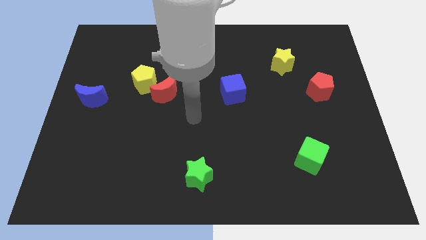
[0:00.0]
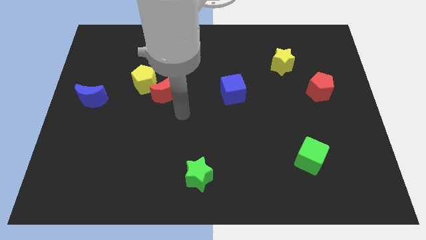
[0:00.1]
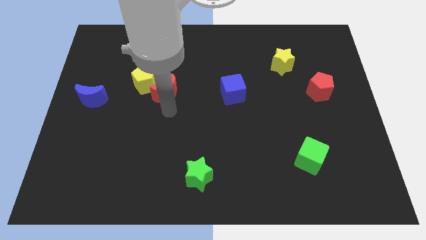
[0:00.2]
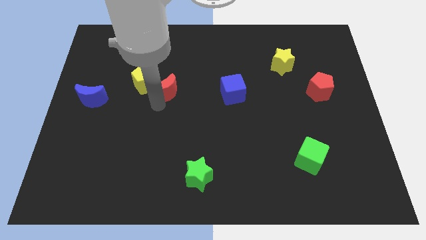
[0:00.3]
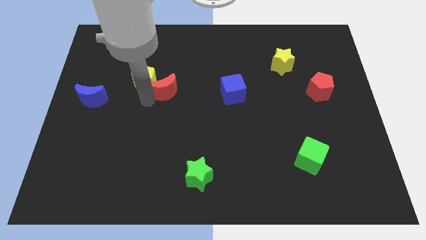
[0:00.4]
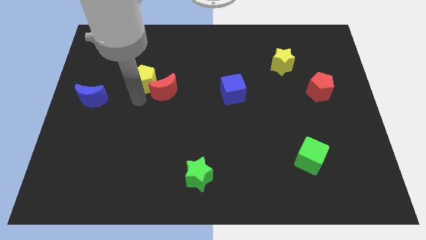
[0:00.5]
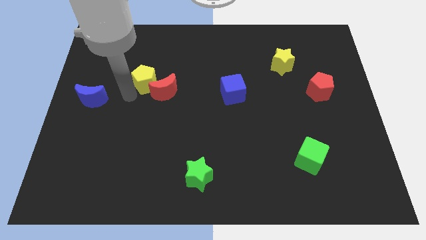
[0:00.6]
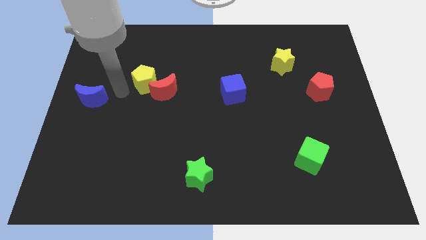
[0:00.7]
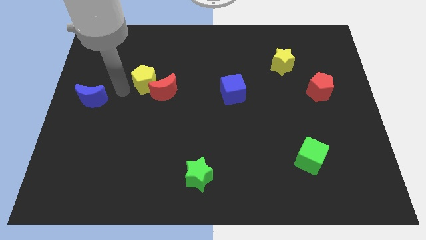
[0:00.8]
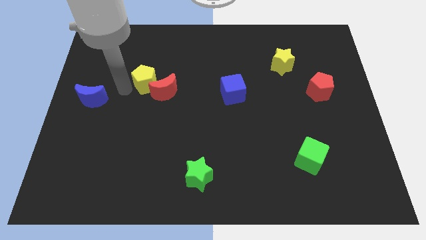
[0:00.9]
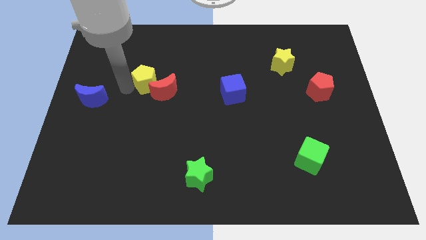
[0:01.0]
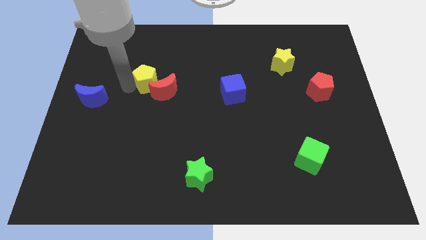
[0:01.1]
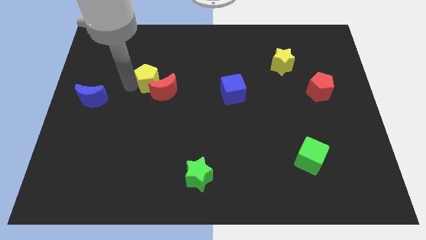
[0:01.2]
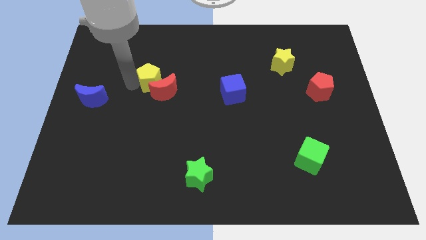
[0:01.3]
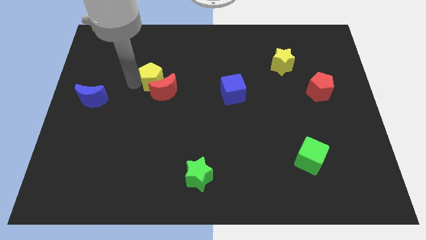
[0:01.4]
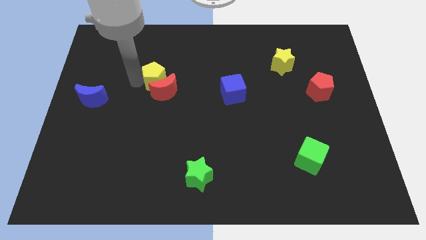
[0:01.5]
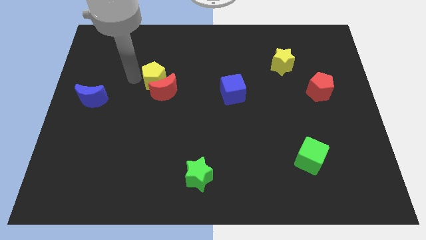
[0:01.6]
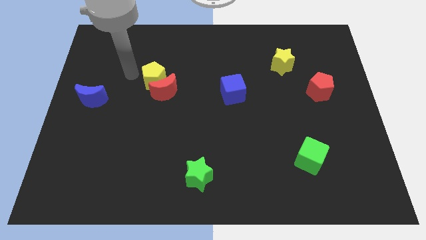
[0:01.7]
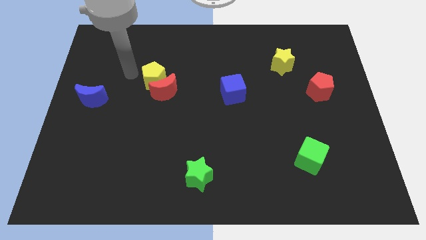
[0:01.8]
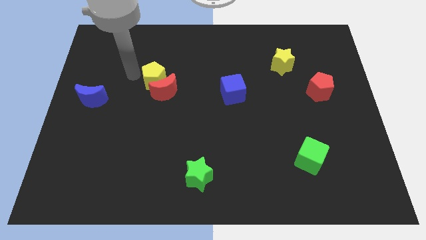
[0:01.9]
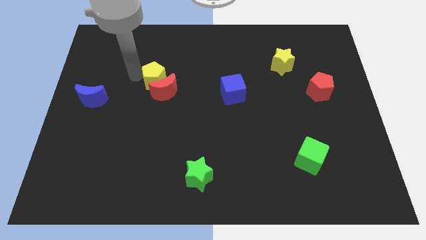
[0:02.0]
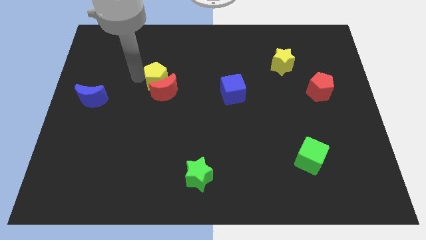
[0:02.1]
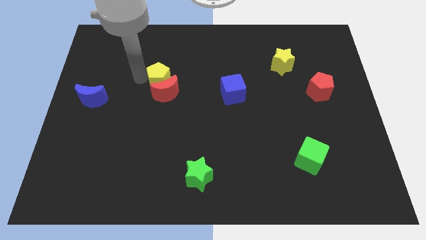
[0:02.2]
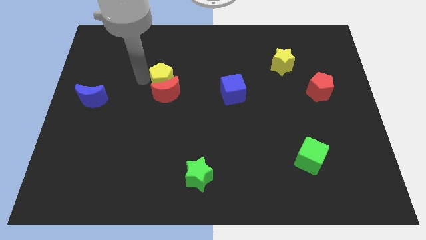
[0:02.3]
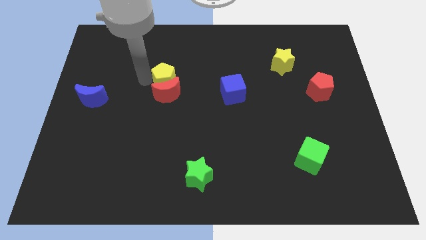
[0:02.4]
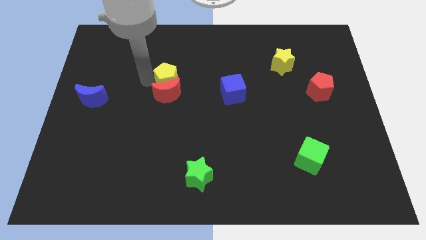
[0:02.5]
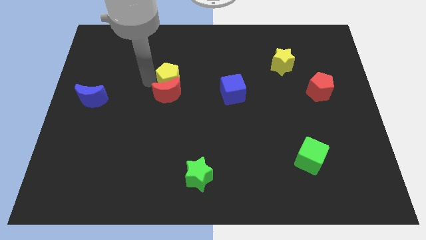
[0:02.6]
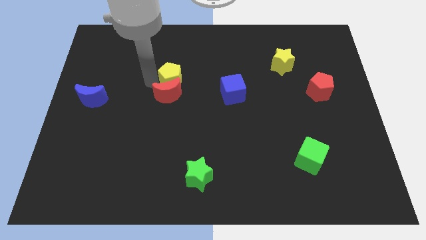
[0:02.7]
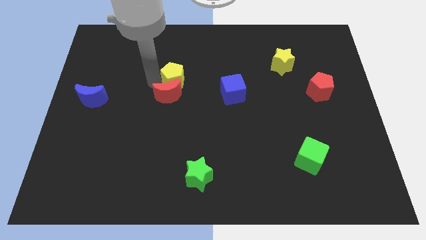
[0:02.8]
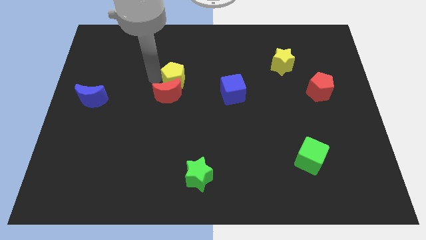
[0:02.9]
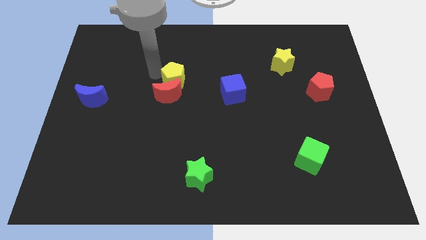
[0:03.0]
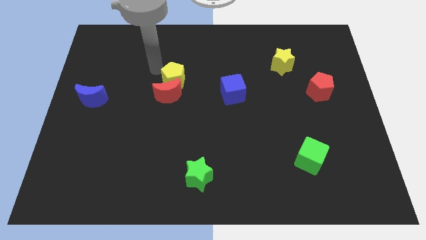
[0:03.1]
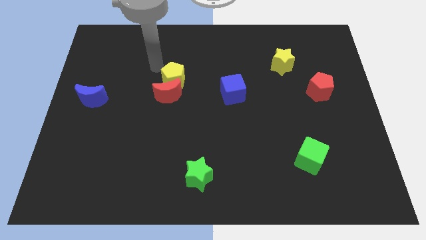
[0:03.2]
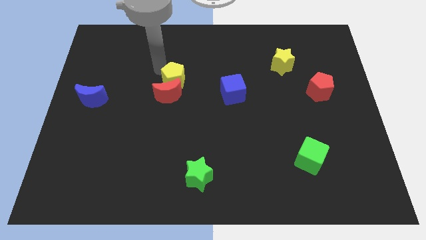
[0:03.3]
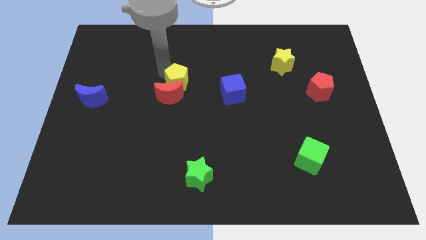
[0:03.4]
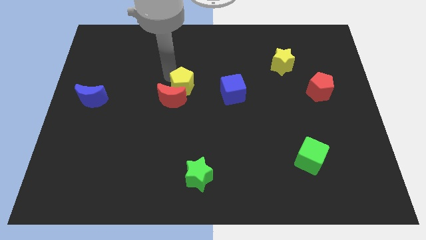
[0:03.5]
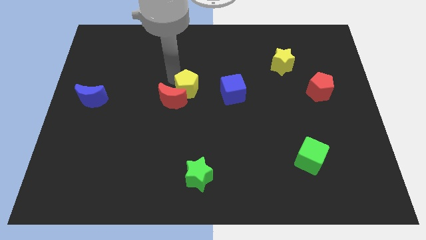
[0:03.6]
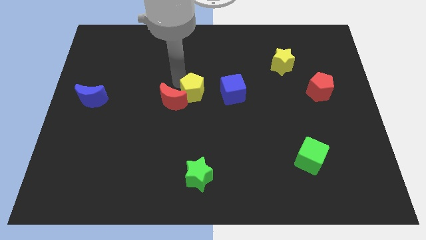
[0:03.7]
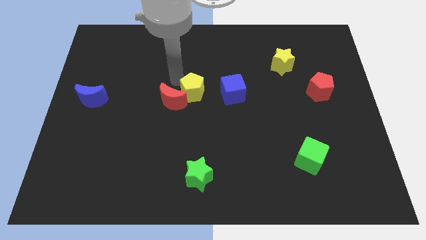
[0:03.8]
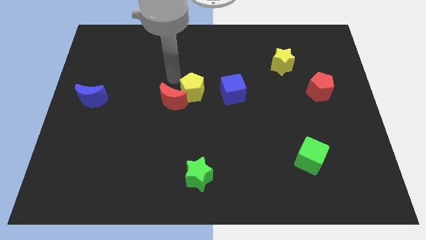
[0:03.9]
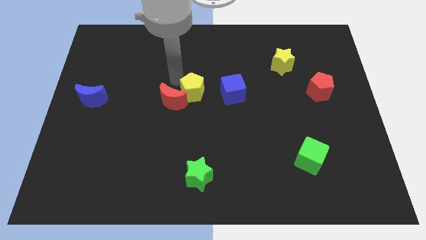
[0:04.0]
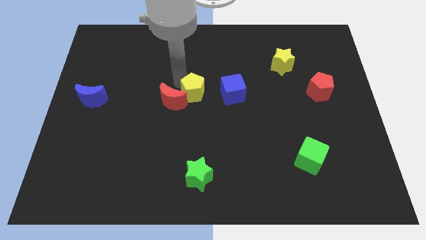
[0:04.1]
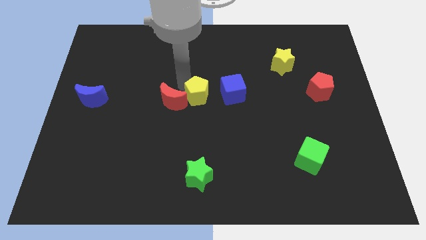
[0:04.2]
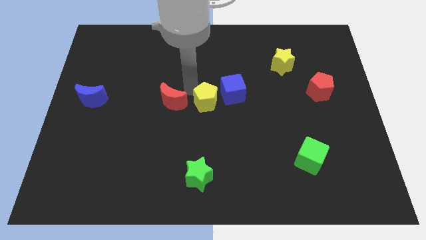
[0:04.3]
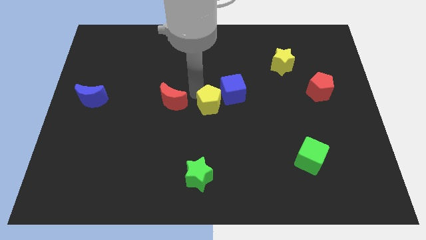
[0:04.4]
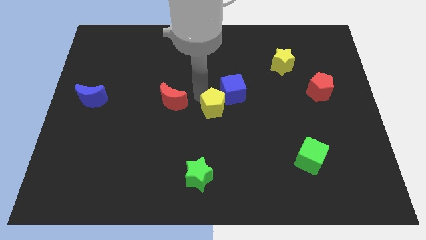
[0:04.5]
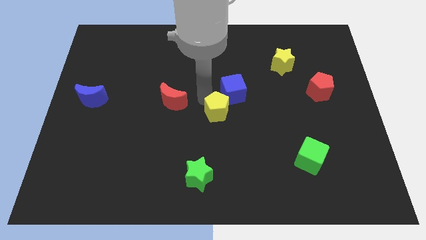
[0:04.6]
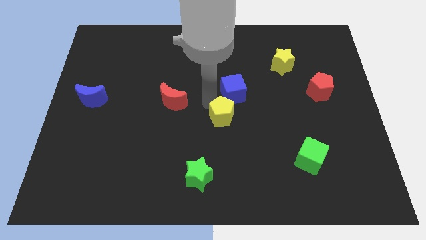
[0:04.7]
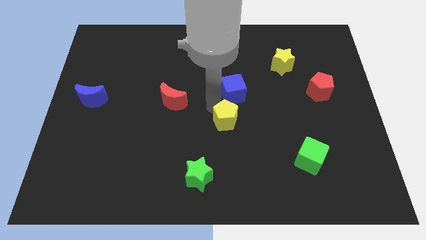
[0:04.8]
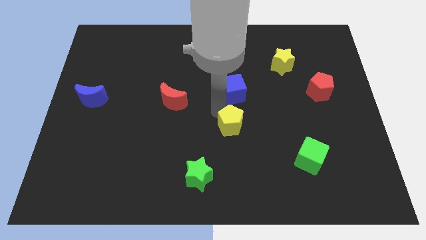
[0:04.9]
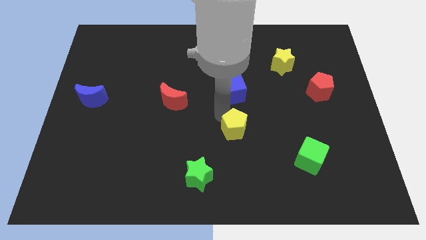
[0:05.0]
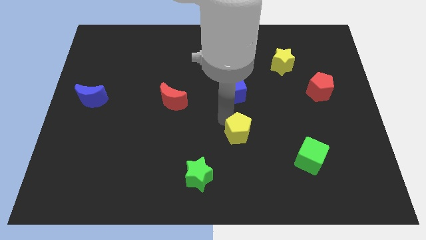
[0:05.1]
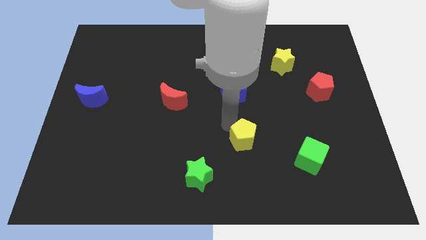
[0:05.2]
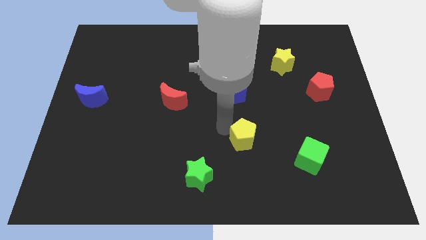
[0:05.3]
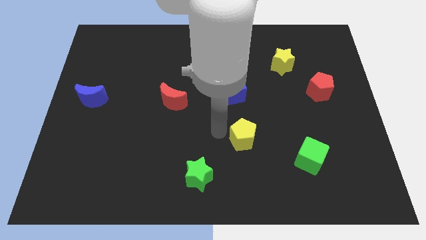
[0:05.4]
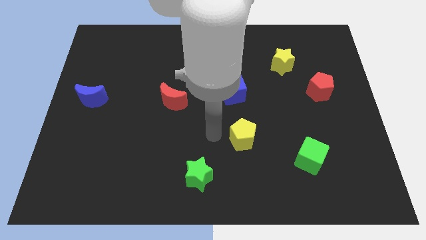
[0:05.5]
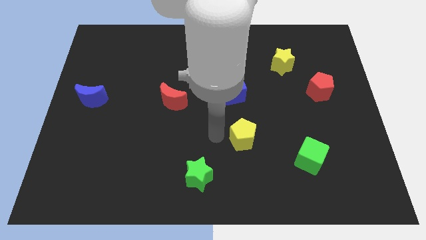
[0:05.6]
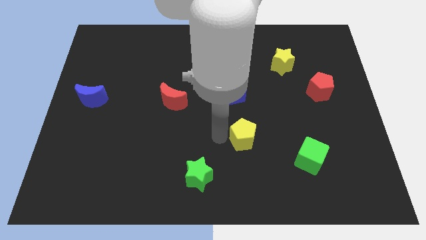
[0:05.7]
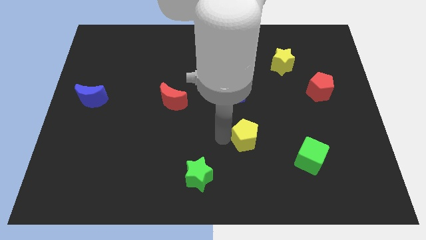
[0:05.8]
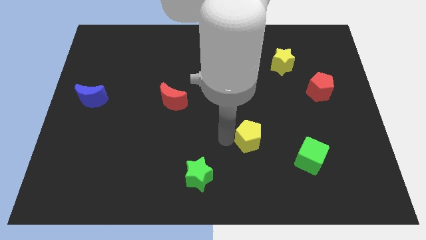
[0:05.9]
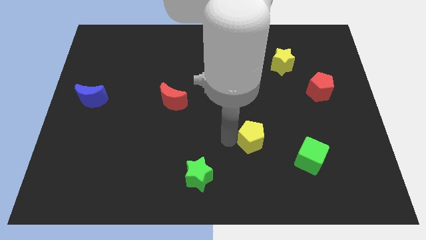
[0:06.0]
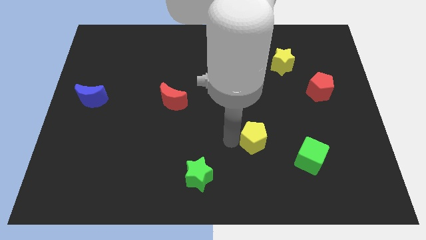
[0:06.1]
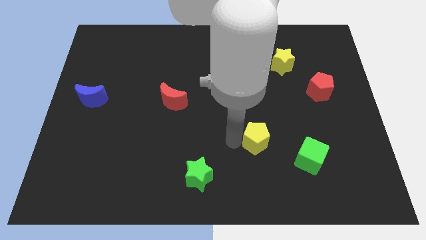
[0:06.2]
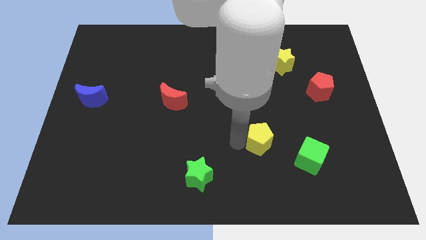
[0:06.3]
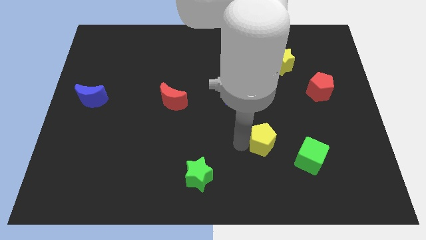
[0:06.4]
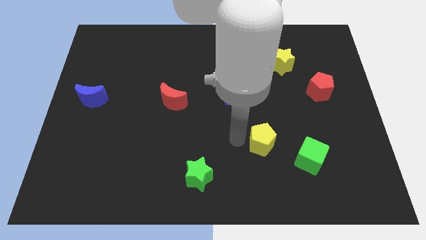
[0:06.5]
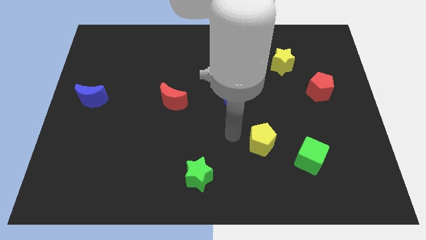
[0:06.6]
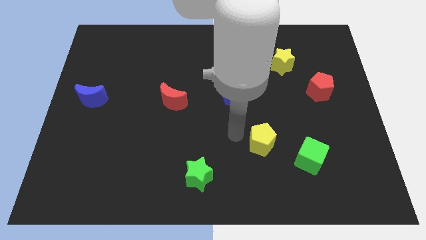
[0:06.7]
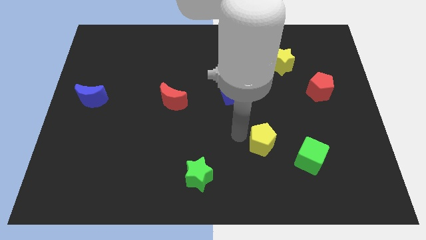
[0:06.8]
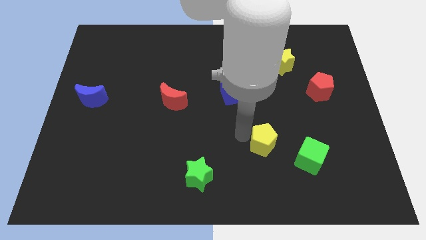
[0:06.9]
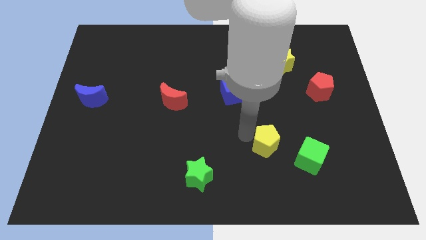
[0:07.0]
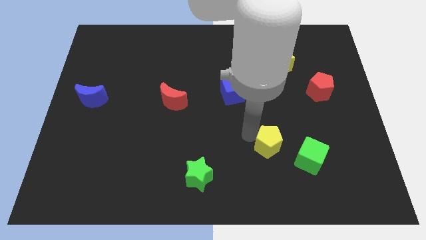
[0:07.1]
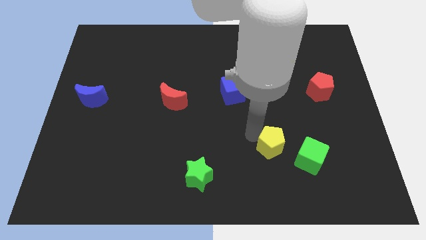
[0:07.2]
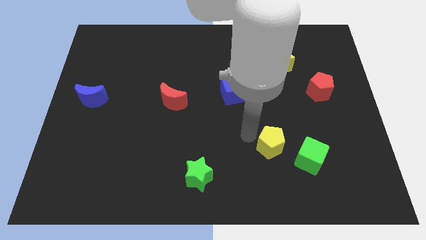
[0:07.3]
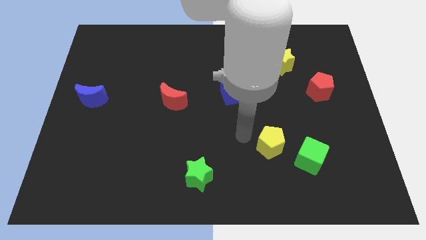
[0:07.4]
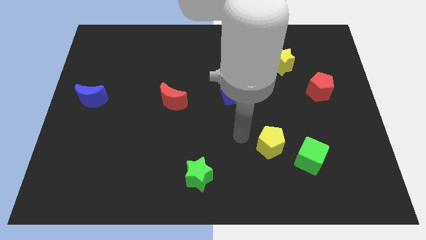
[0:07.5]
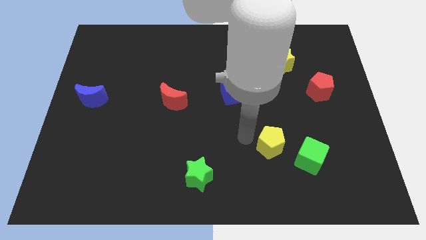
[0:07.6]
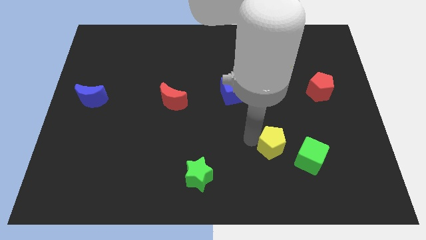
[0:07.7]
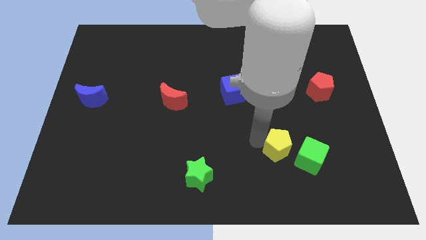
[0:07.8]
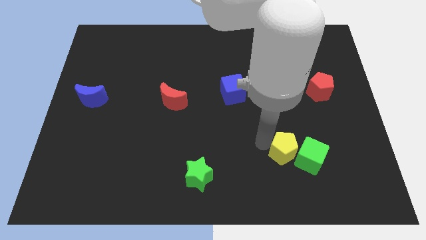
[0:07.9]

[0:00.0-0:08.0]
put the yellow pentagon towards the green cube
